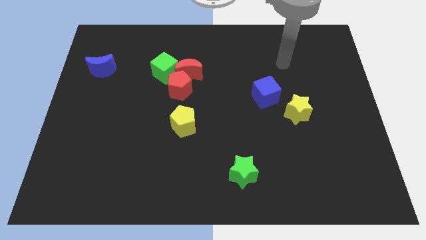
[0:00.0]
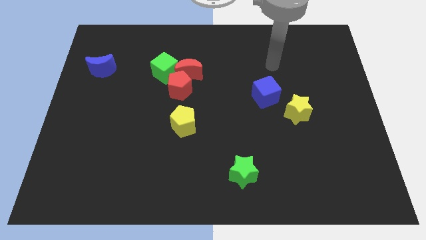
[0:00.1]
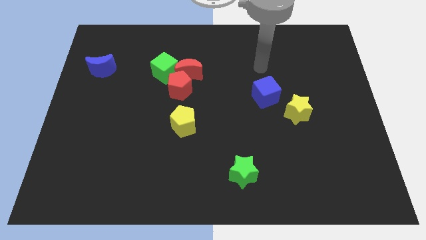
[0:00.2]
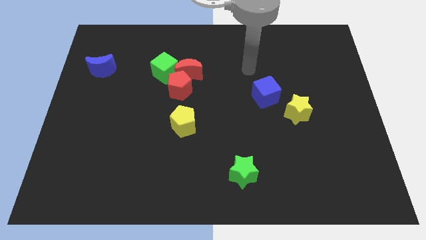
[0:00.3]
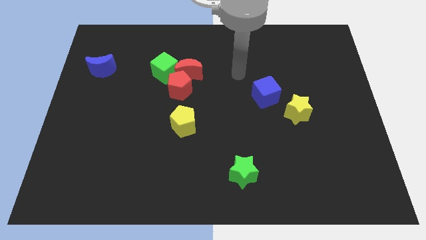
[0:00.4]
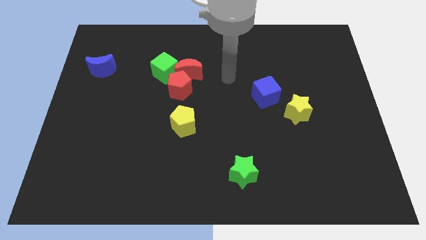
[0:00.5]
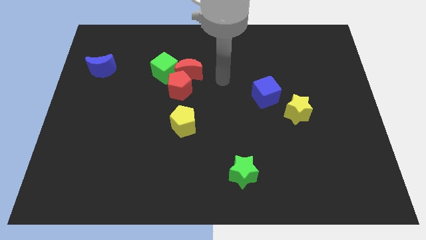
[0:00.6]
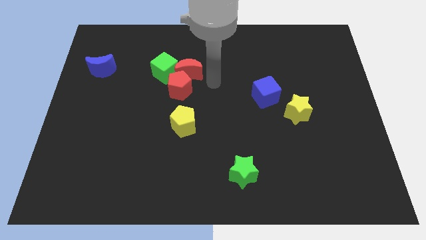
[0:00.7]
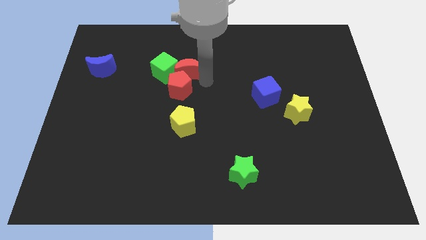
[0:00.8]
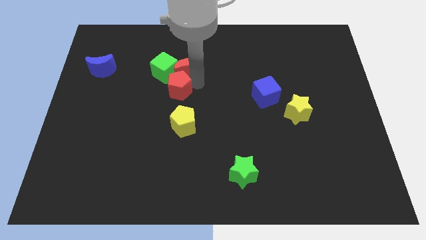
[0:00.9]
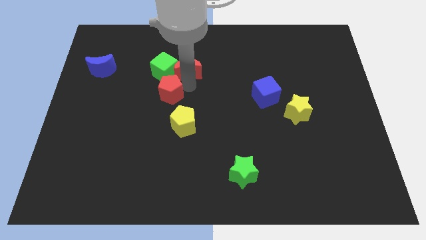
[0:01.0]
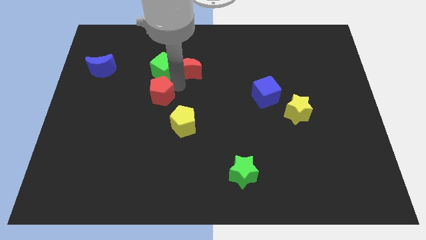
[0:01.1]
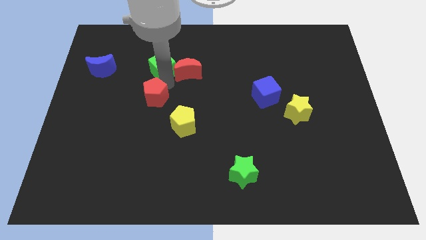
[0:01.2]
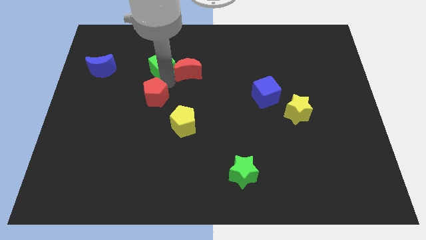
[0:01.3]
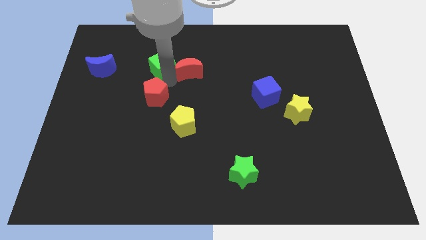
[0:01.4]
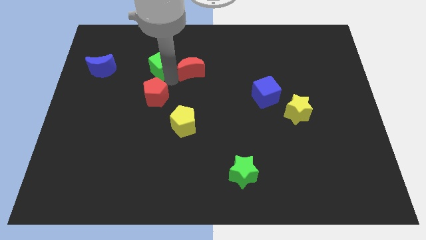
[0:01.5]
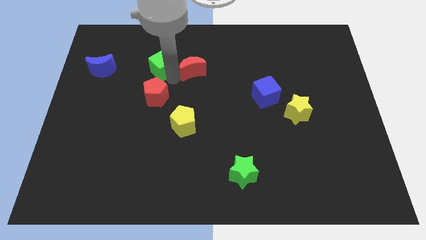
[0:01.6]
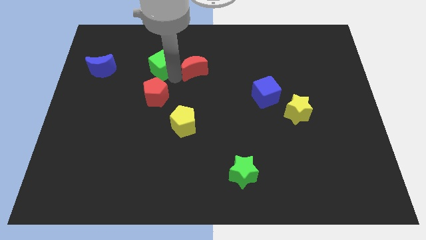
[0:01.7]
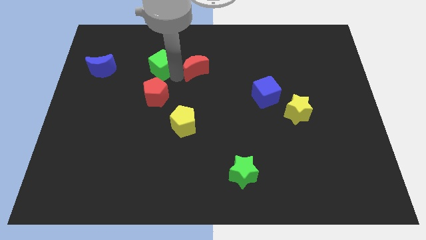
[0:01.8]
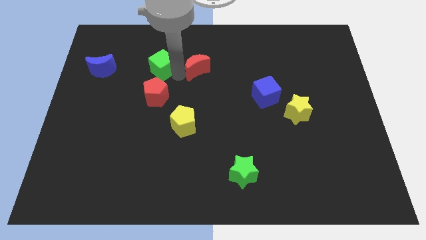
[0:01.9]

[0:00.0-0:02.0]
move the red moon away from the red pentagon and green cube

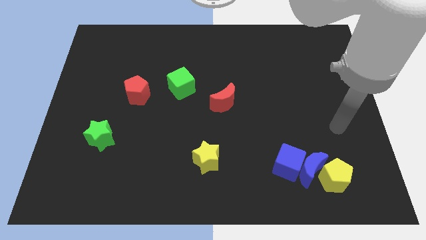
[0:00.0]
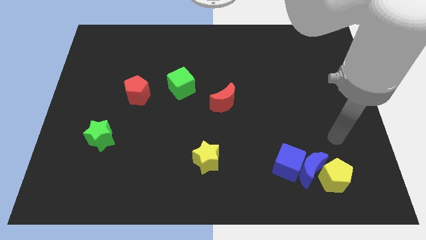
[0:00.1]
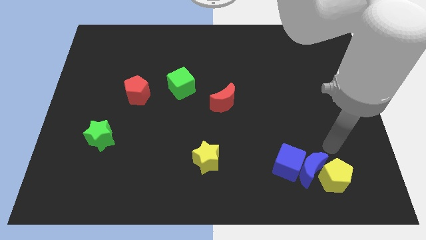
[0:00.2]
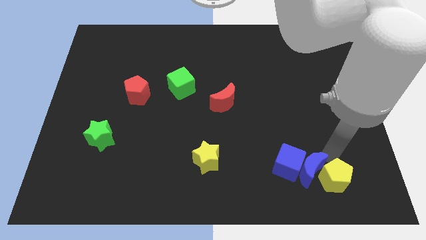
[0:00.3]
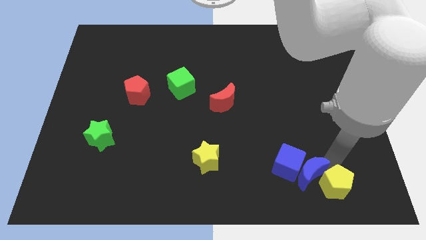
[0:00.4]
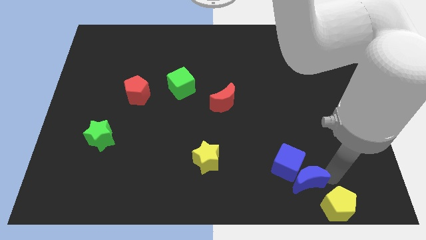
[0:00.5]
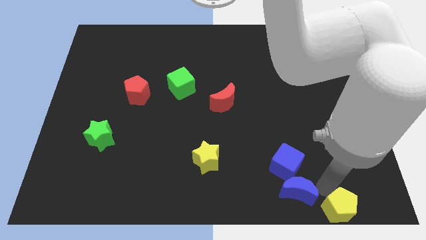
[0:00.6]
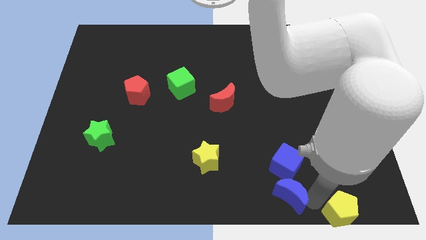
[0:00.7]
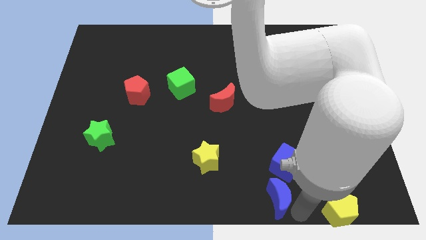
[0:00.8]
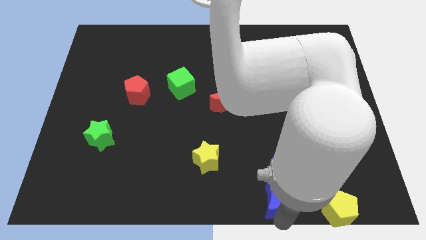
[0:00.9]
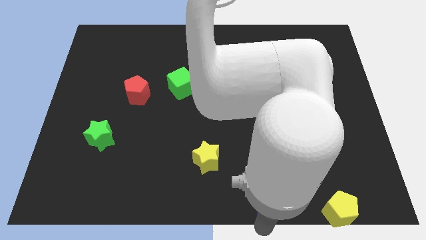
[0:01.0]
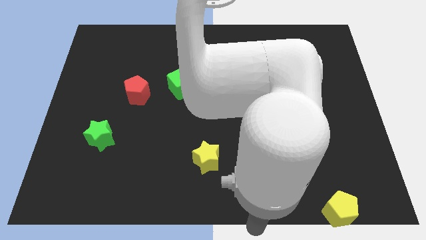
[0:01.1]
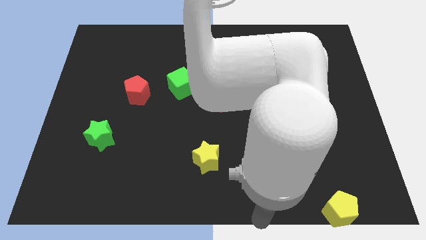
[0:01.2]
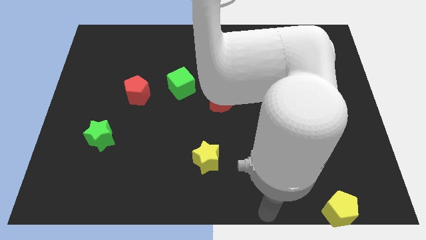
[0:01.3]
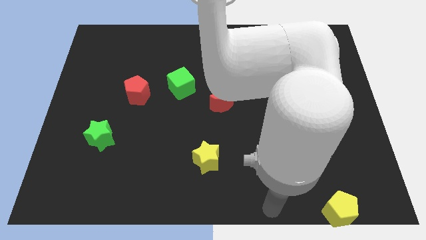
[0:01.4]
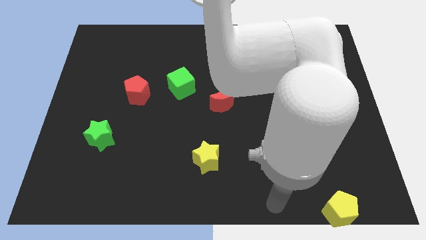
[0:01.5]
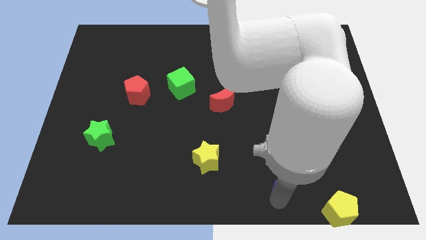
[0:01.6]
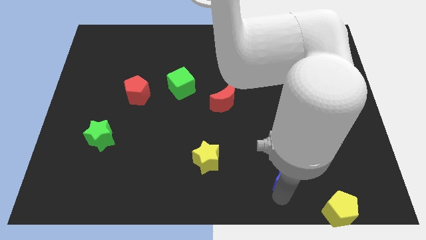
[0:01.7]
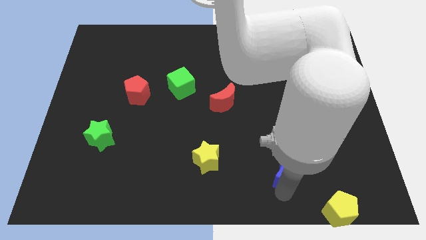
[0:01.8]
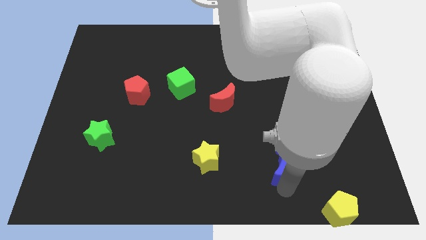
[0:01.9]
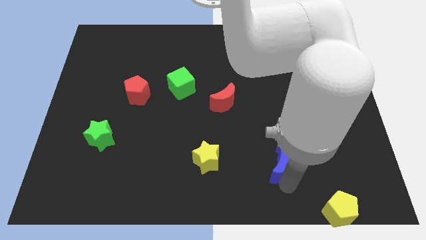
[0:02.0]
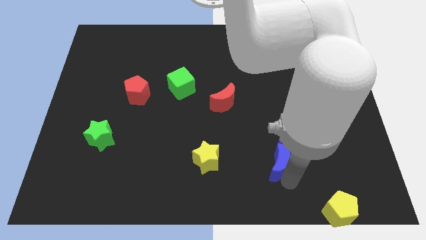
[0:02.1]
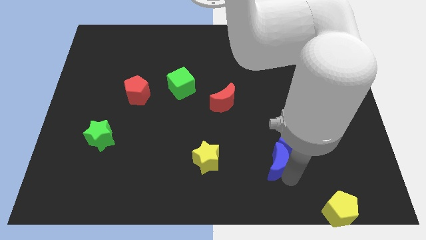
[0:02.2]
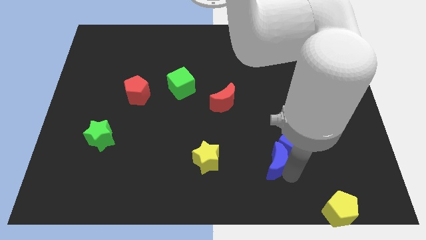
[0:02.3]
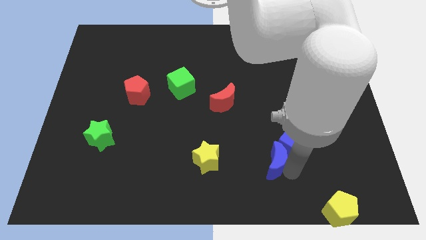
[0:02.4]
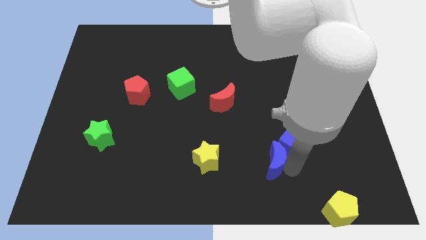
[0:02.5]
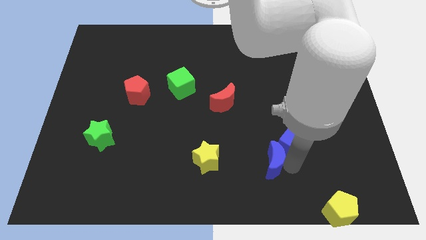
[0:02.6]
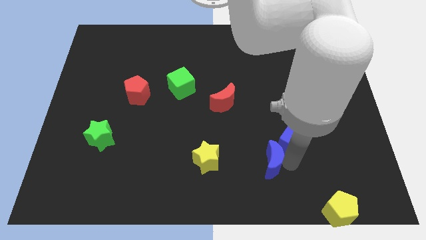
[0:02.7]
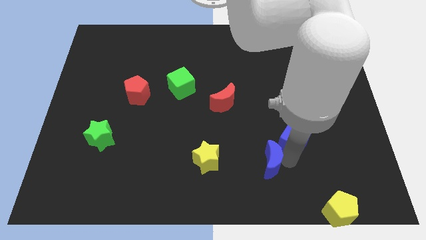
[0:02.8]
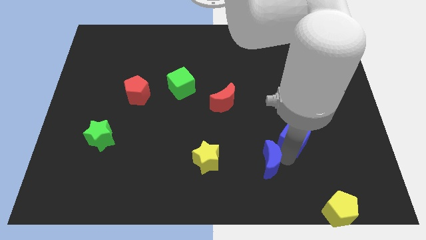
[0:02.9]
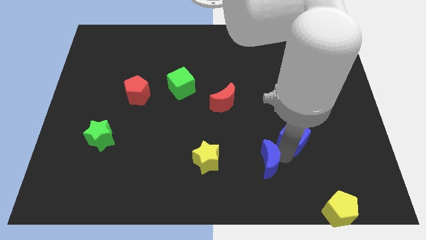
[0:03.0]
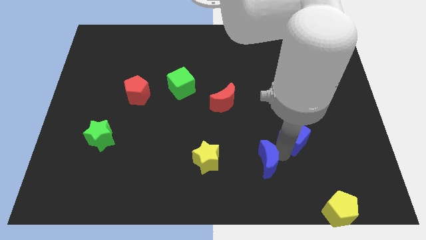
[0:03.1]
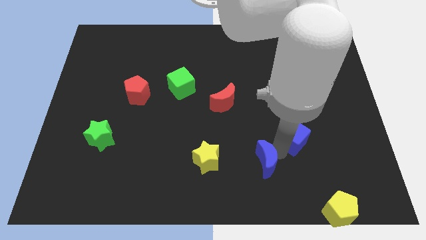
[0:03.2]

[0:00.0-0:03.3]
separate the blue moon from the blue cube and yellow pentagon

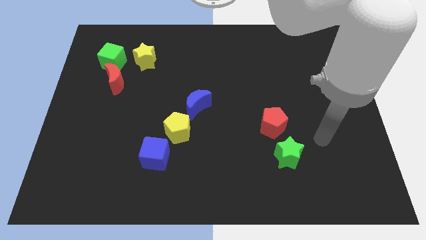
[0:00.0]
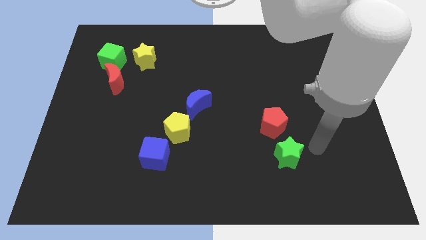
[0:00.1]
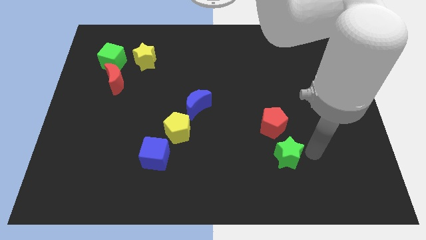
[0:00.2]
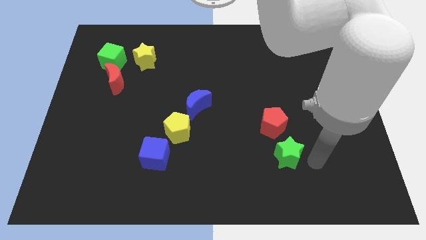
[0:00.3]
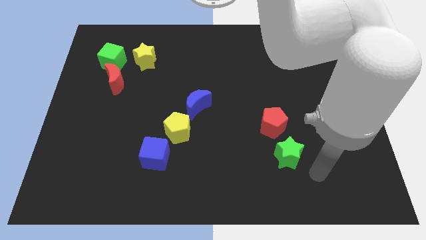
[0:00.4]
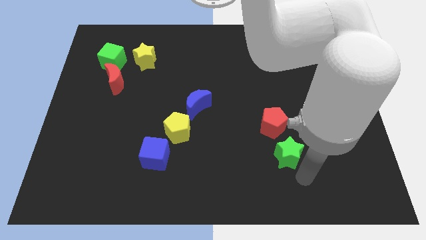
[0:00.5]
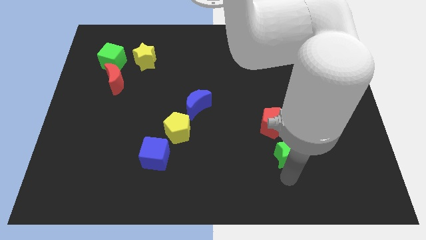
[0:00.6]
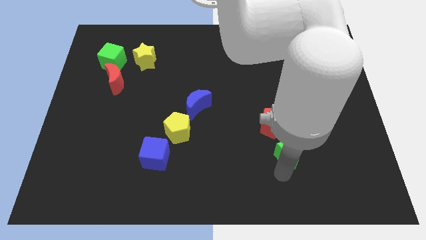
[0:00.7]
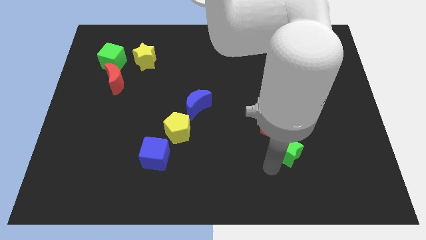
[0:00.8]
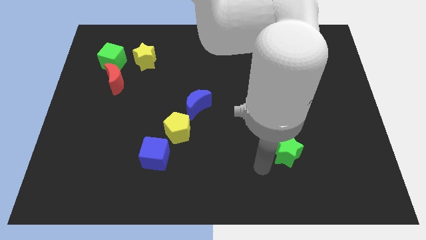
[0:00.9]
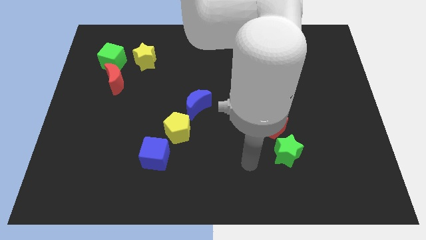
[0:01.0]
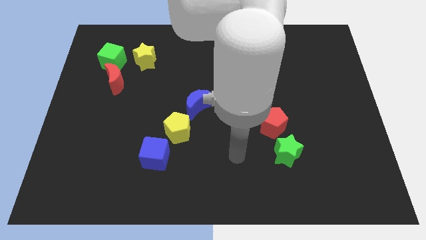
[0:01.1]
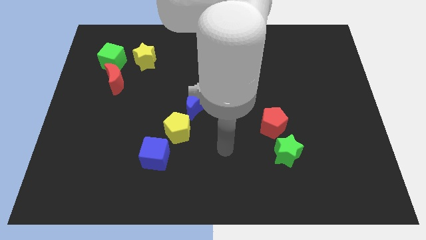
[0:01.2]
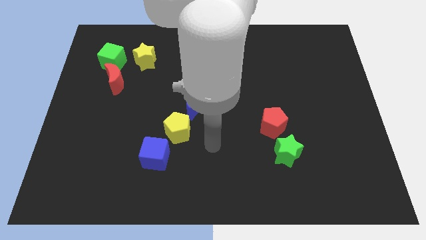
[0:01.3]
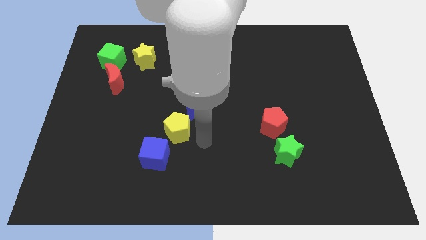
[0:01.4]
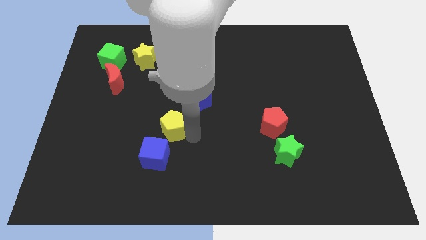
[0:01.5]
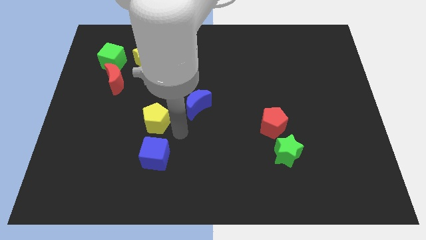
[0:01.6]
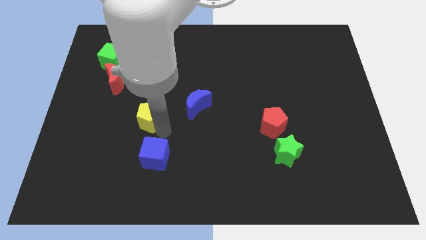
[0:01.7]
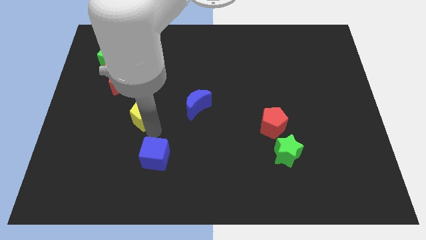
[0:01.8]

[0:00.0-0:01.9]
pull the blue cube apart from the yellow pentagon

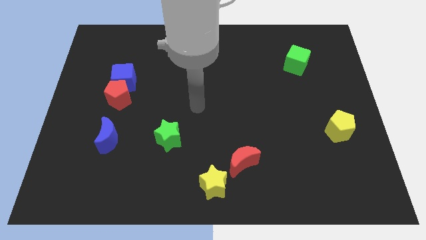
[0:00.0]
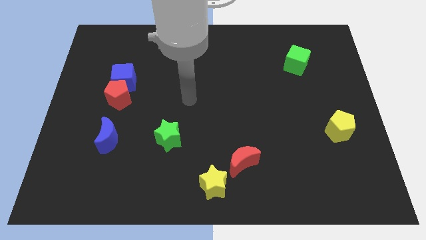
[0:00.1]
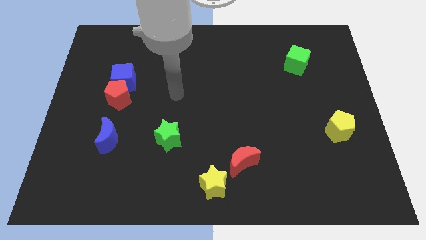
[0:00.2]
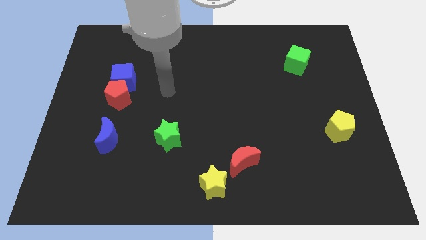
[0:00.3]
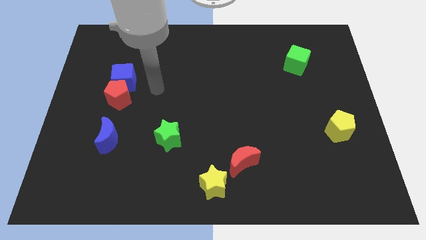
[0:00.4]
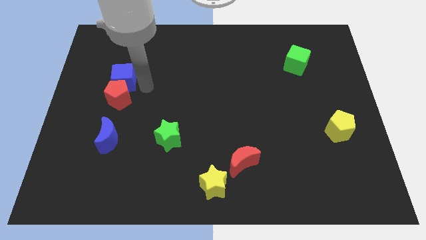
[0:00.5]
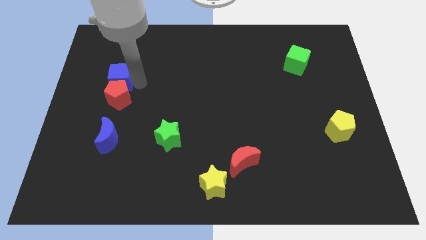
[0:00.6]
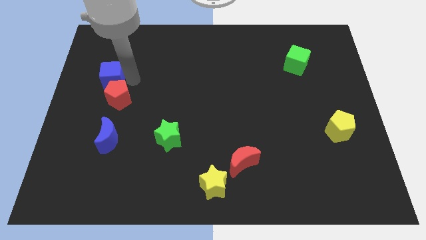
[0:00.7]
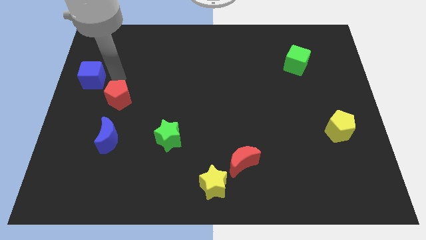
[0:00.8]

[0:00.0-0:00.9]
separate the red pentagon from the blue cube

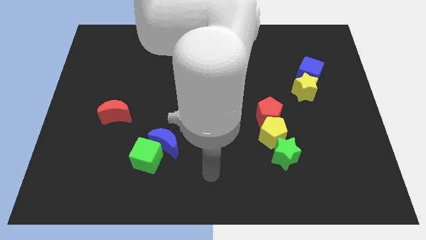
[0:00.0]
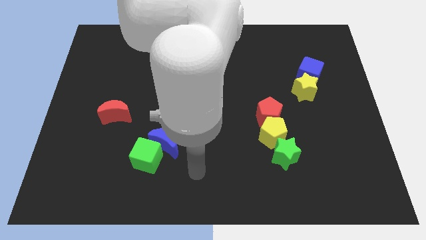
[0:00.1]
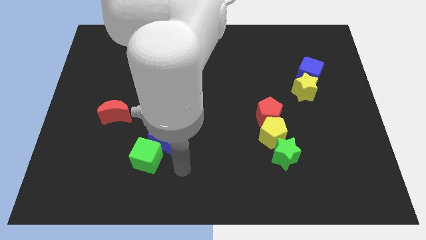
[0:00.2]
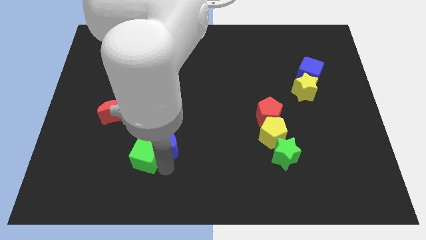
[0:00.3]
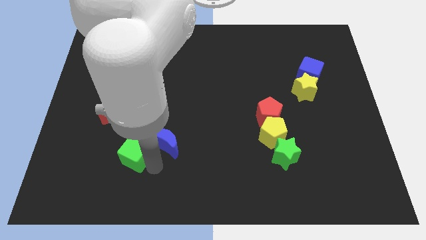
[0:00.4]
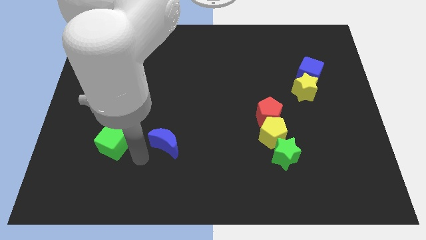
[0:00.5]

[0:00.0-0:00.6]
move the blue moon away from the green cube

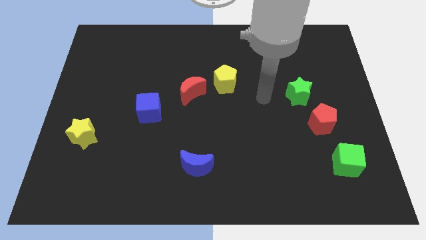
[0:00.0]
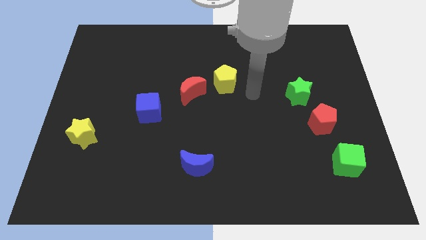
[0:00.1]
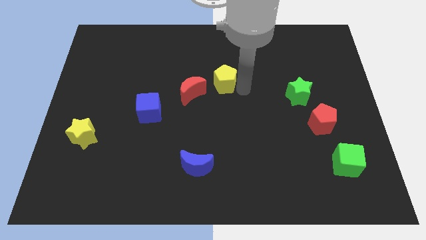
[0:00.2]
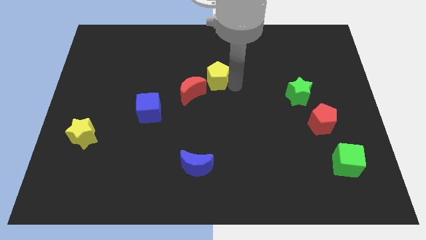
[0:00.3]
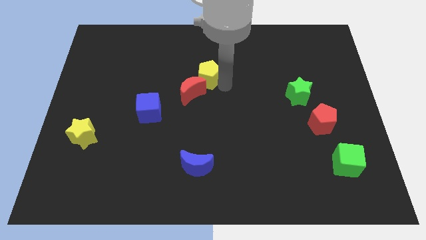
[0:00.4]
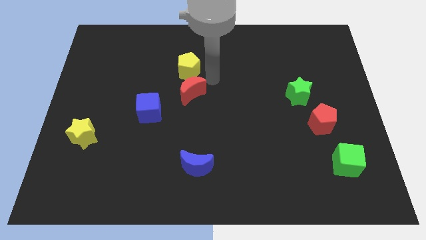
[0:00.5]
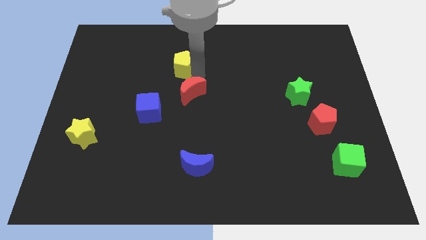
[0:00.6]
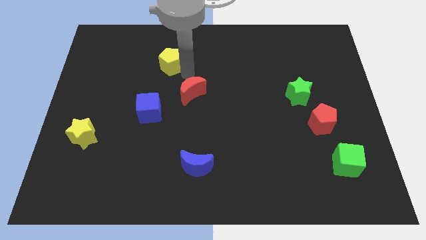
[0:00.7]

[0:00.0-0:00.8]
separate the red moon from the yellow pentagon

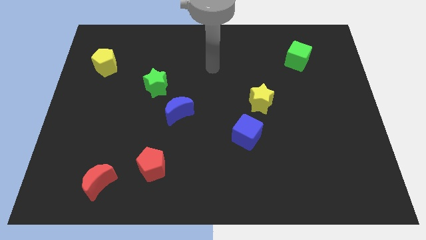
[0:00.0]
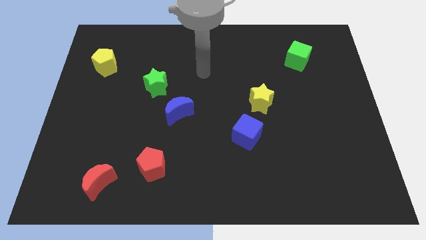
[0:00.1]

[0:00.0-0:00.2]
move the blue moon away from the green star
